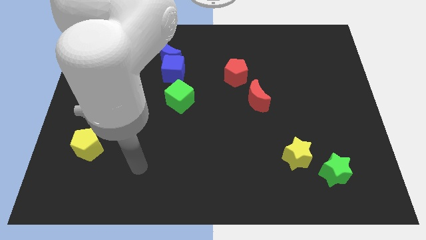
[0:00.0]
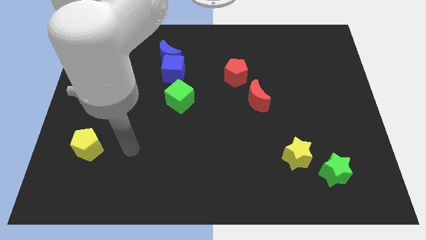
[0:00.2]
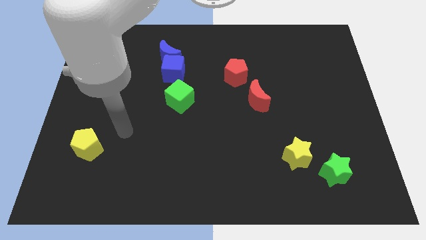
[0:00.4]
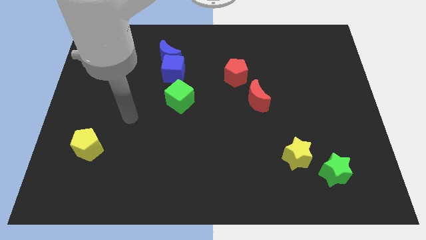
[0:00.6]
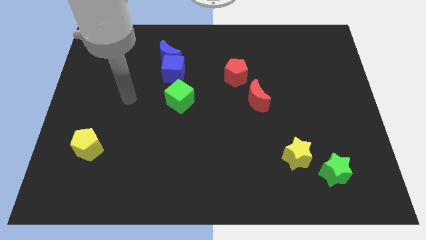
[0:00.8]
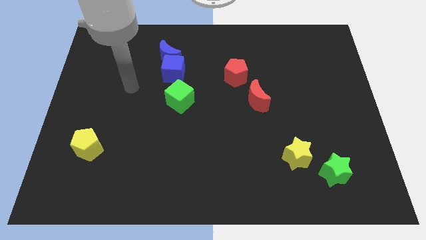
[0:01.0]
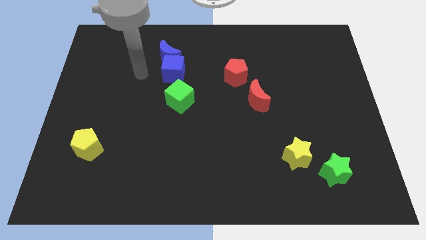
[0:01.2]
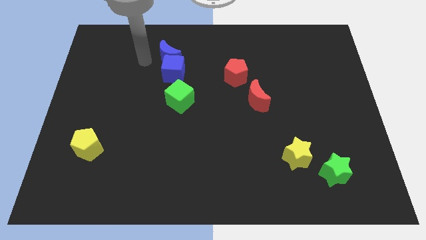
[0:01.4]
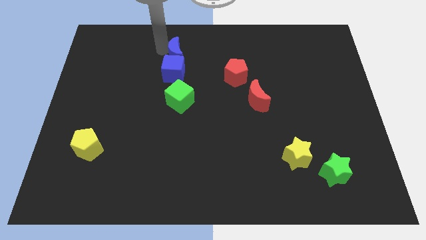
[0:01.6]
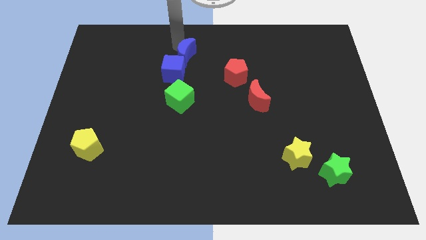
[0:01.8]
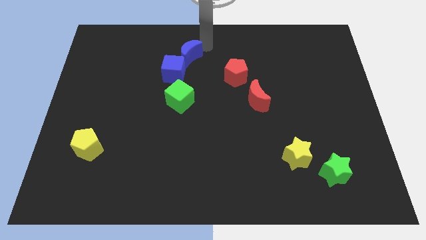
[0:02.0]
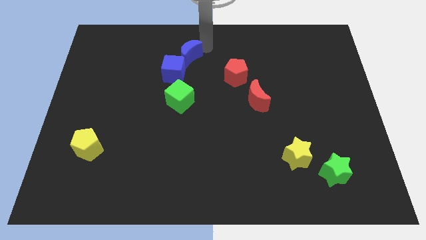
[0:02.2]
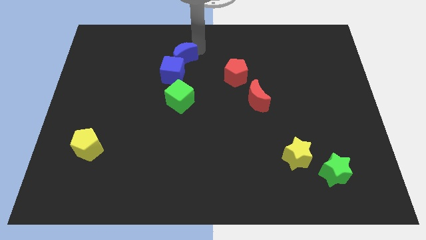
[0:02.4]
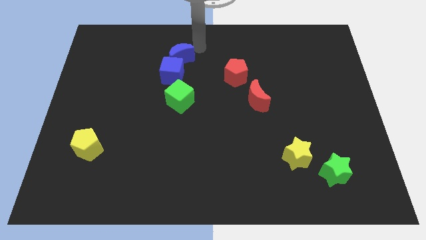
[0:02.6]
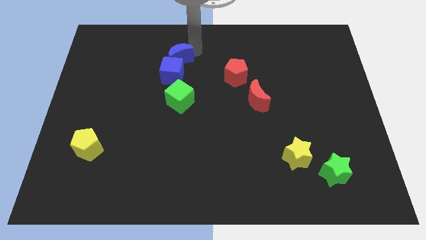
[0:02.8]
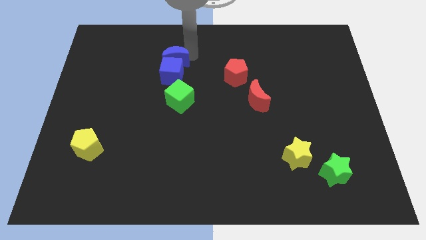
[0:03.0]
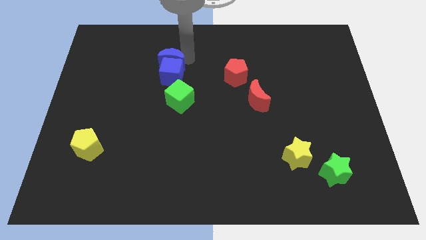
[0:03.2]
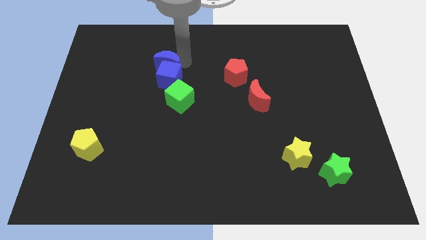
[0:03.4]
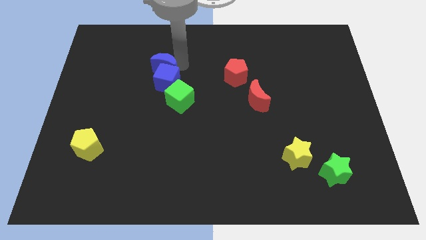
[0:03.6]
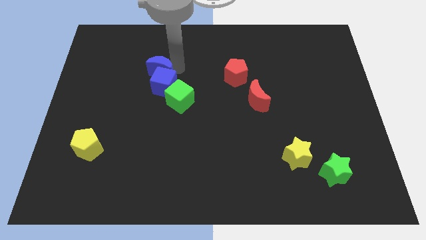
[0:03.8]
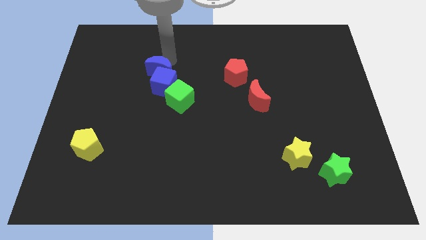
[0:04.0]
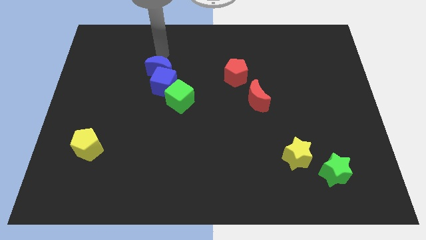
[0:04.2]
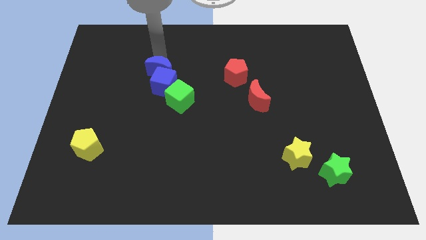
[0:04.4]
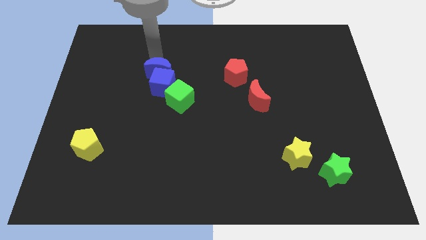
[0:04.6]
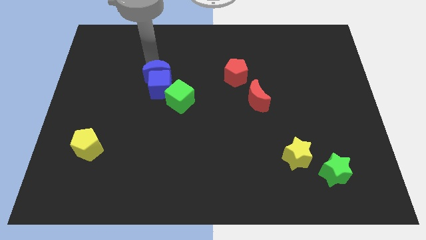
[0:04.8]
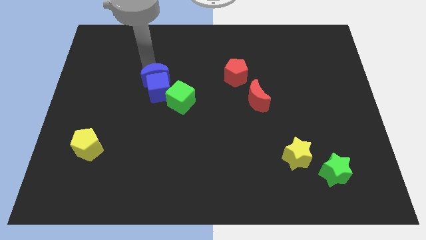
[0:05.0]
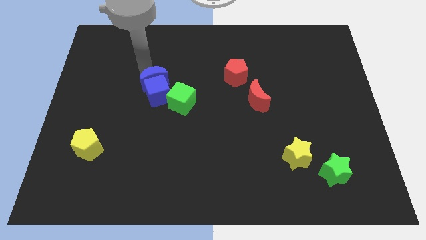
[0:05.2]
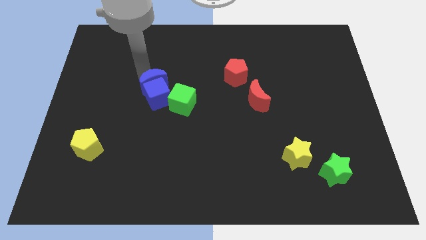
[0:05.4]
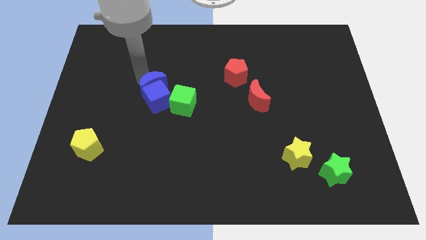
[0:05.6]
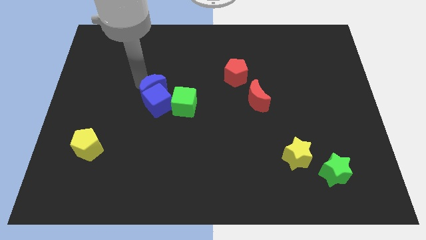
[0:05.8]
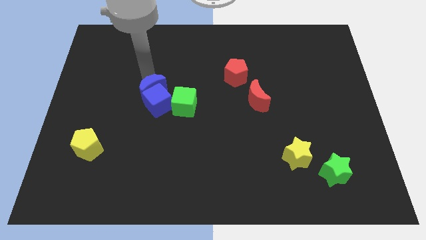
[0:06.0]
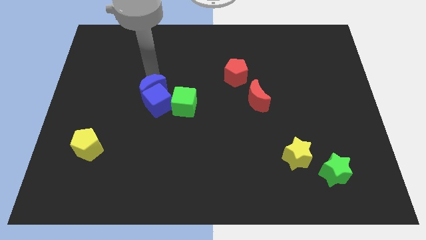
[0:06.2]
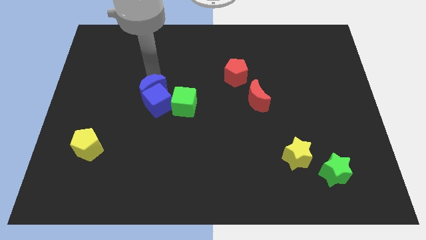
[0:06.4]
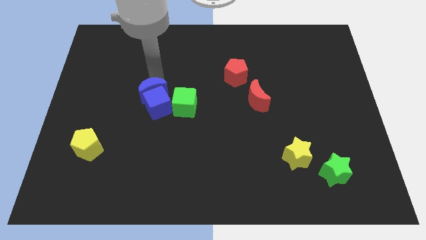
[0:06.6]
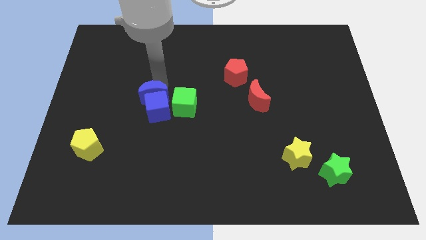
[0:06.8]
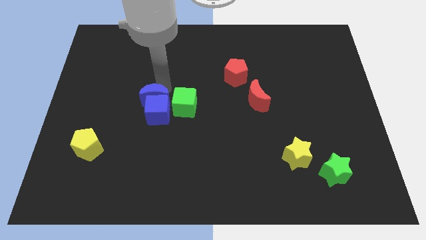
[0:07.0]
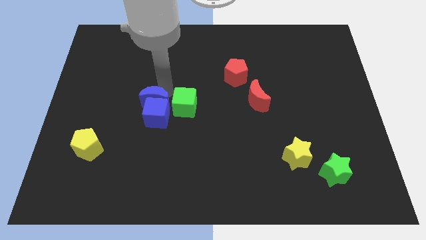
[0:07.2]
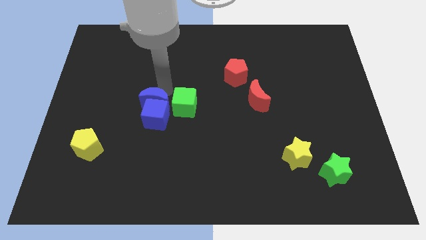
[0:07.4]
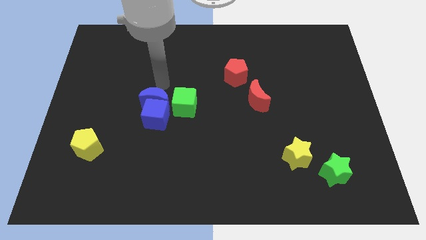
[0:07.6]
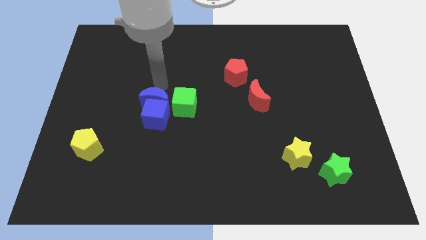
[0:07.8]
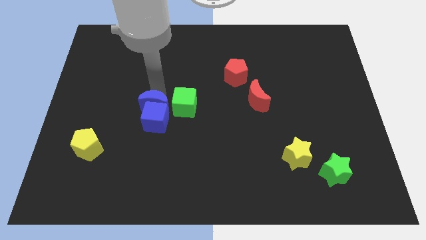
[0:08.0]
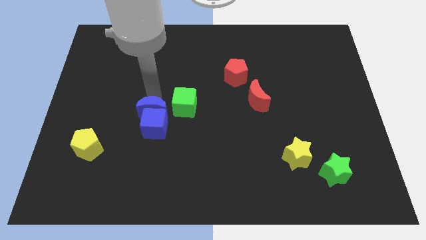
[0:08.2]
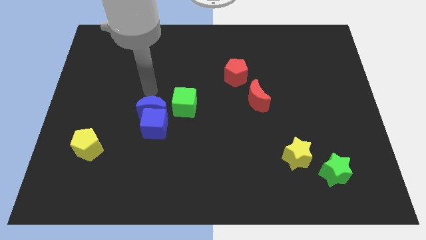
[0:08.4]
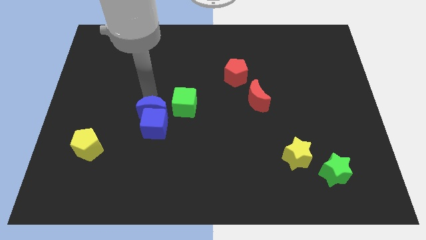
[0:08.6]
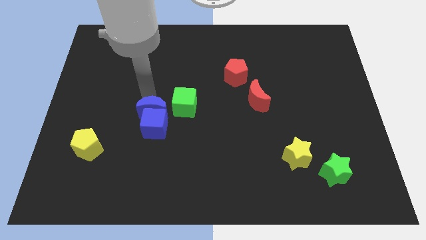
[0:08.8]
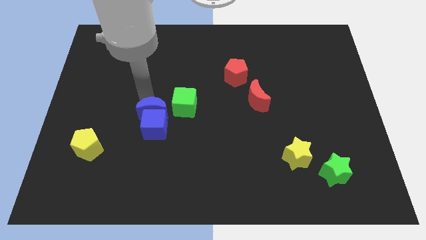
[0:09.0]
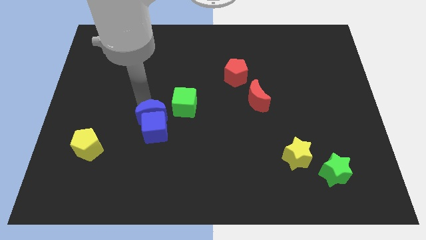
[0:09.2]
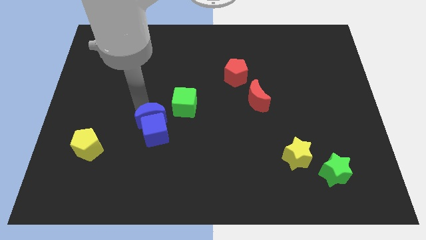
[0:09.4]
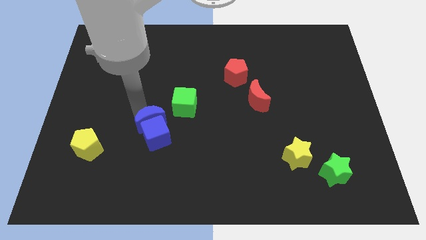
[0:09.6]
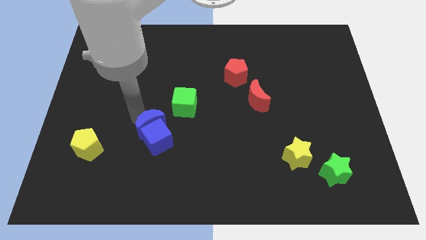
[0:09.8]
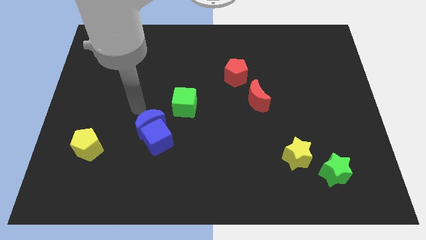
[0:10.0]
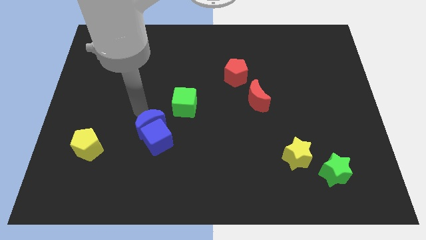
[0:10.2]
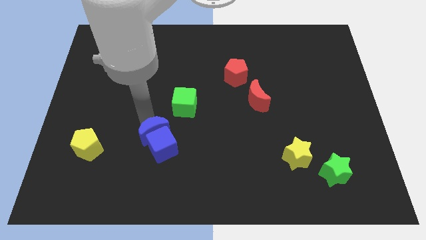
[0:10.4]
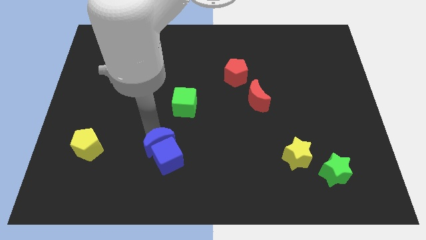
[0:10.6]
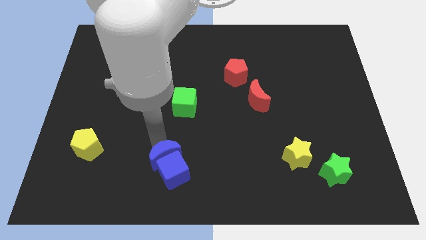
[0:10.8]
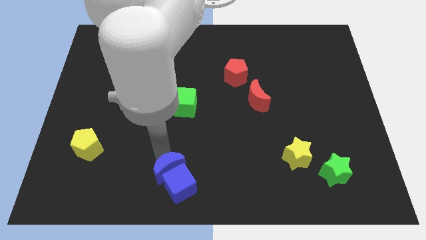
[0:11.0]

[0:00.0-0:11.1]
put the blue moon to the bottom

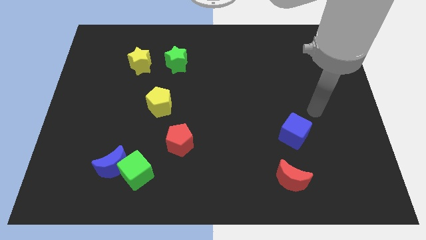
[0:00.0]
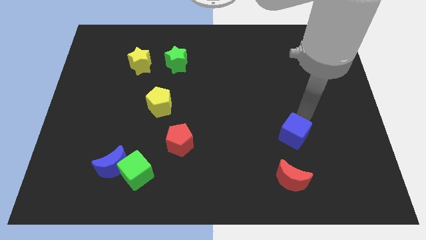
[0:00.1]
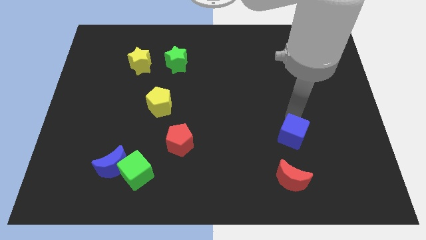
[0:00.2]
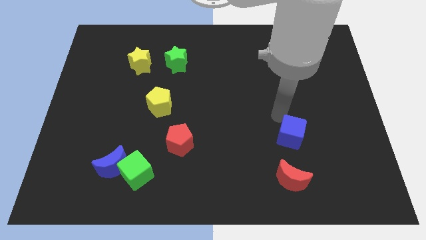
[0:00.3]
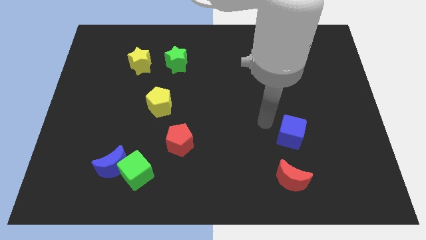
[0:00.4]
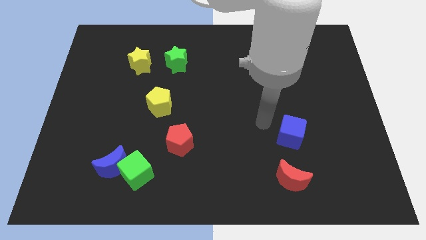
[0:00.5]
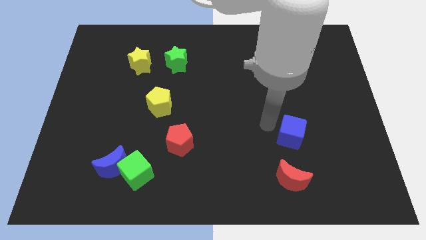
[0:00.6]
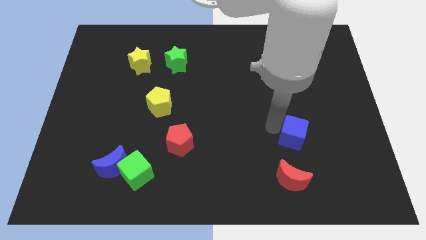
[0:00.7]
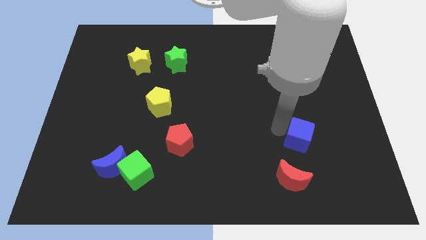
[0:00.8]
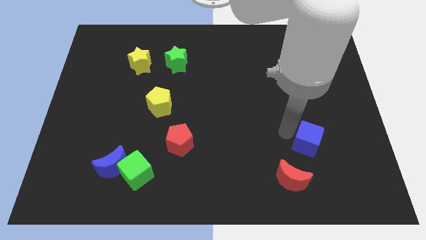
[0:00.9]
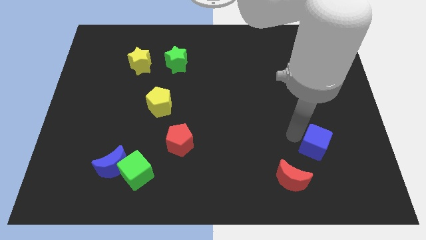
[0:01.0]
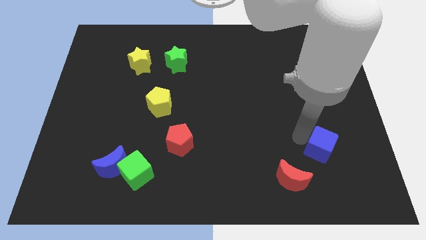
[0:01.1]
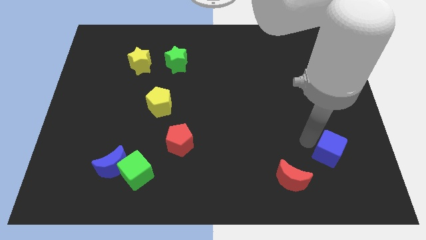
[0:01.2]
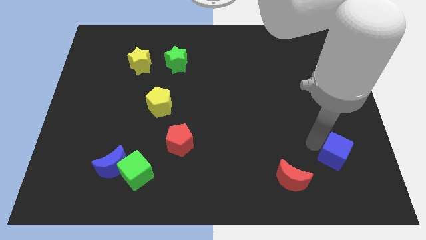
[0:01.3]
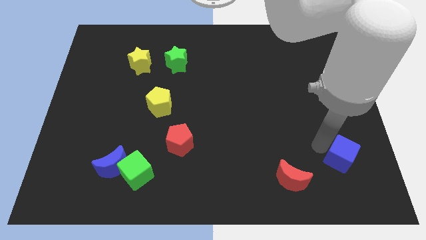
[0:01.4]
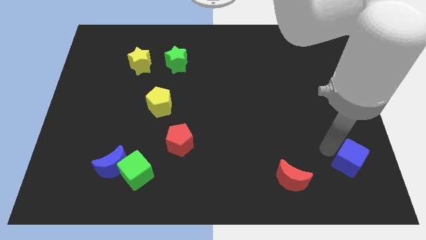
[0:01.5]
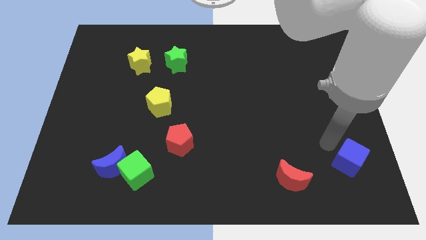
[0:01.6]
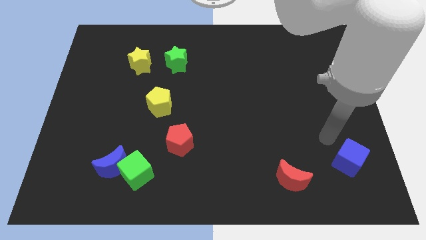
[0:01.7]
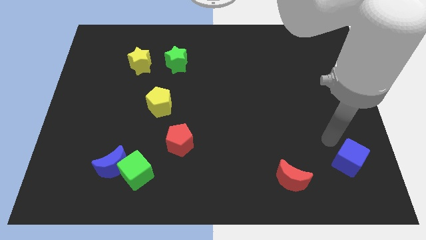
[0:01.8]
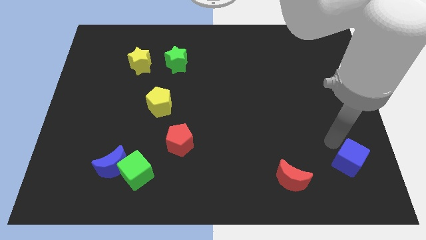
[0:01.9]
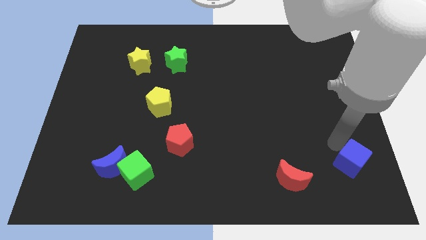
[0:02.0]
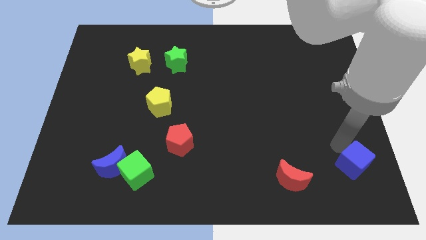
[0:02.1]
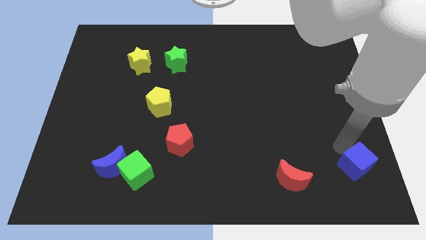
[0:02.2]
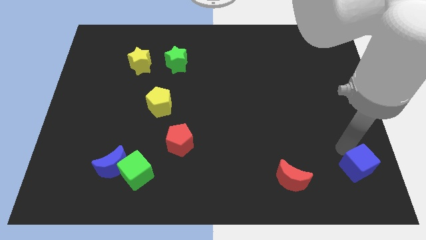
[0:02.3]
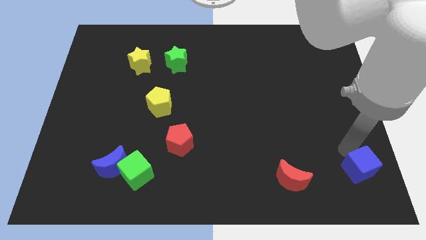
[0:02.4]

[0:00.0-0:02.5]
put the blue cube to the bottom right of the board
